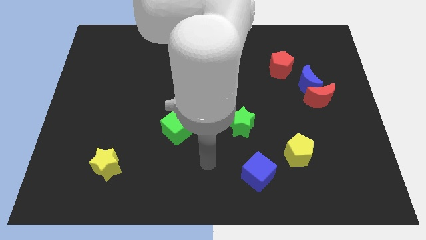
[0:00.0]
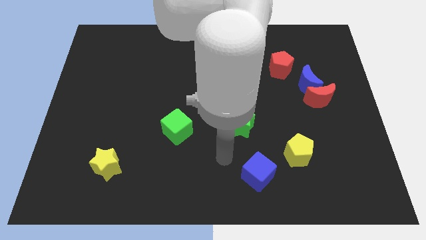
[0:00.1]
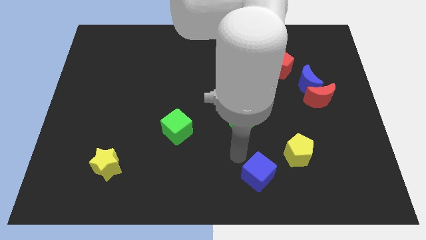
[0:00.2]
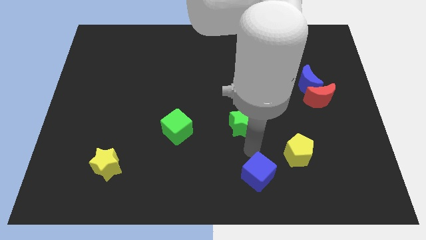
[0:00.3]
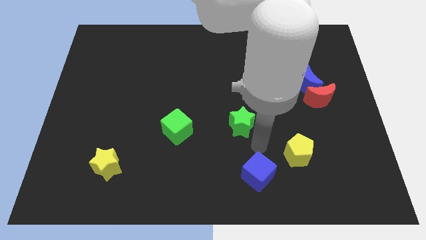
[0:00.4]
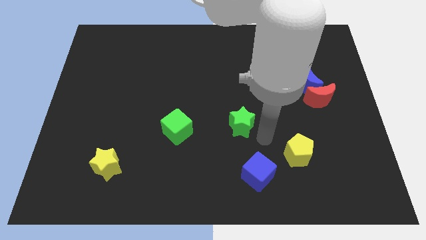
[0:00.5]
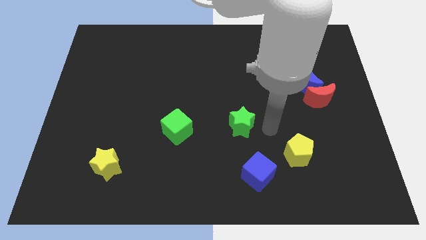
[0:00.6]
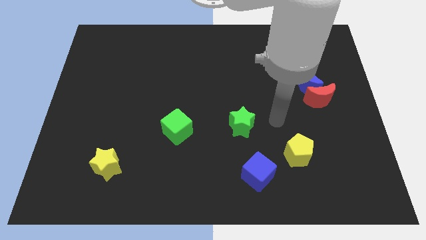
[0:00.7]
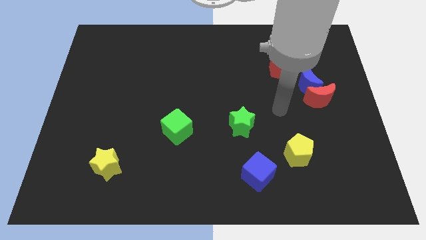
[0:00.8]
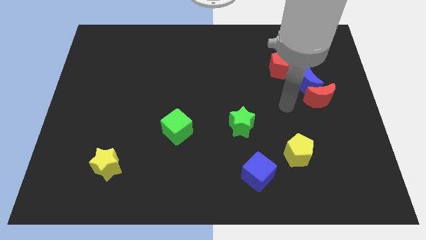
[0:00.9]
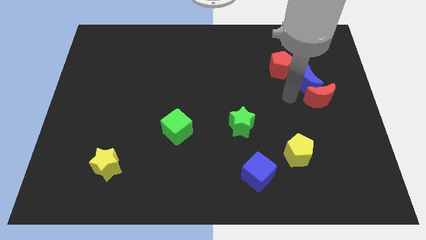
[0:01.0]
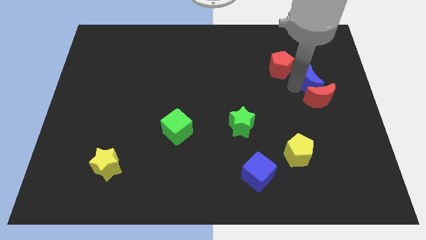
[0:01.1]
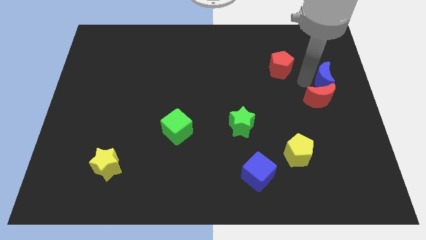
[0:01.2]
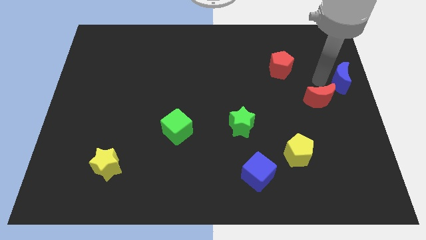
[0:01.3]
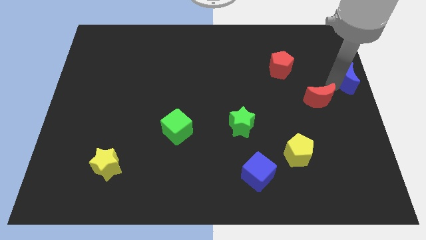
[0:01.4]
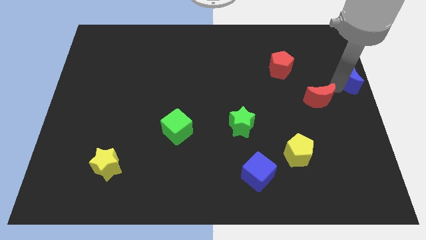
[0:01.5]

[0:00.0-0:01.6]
pull the red moon apart from the blue moon

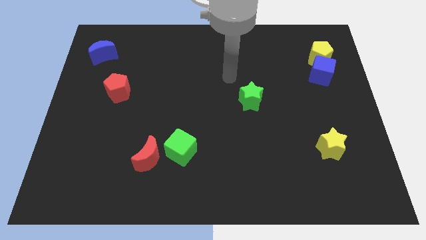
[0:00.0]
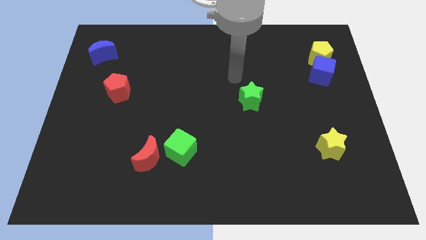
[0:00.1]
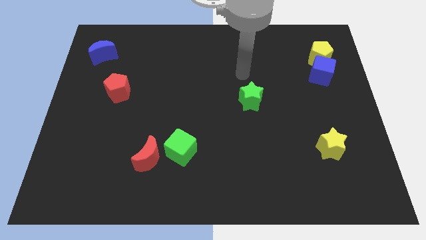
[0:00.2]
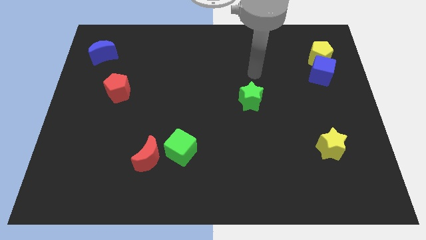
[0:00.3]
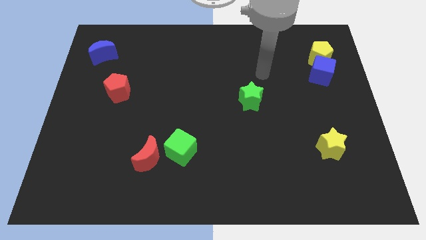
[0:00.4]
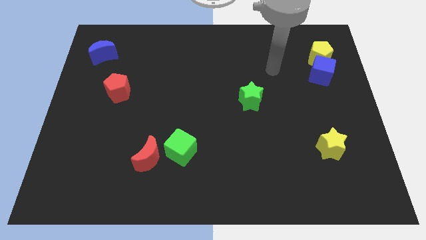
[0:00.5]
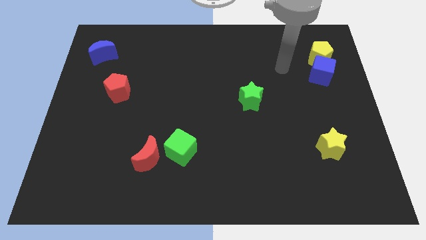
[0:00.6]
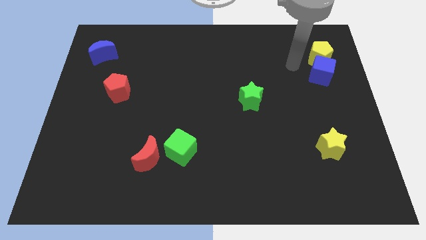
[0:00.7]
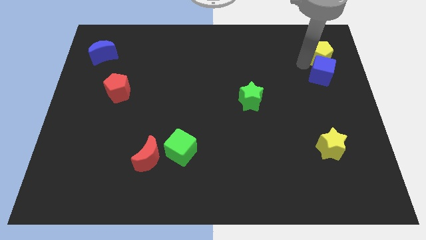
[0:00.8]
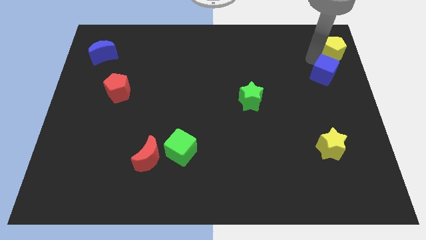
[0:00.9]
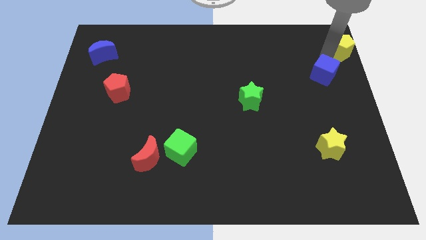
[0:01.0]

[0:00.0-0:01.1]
pull the blue cube apart from the yellow pentagon

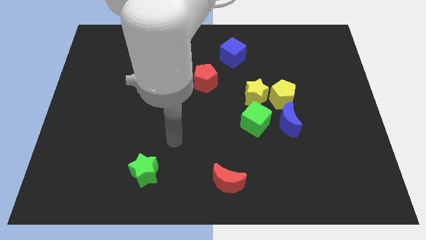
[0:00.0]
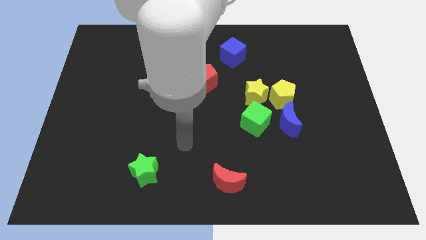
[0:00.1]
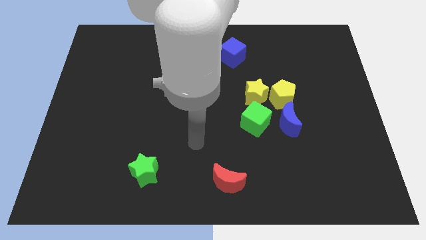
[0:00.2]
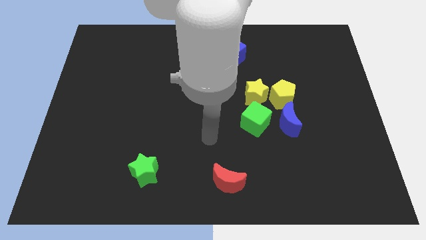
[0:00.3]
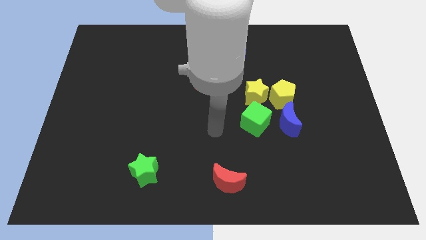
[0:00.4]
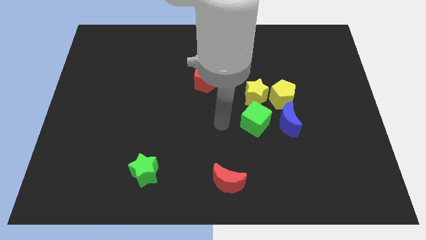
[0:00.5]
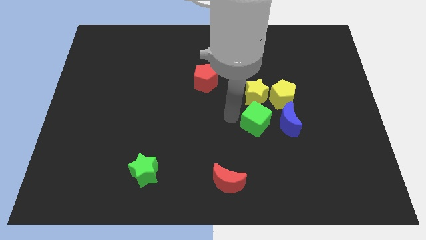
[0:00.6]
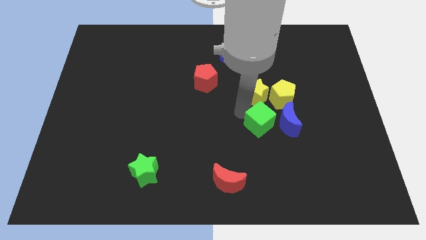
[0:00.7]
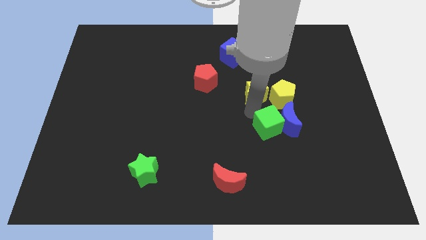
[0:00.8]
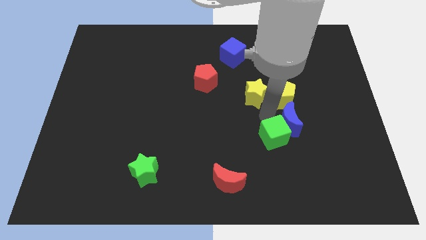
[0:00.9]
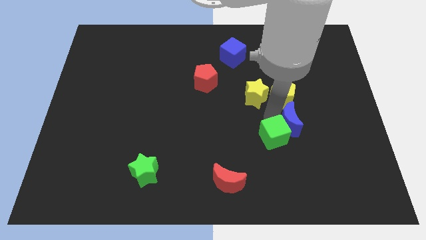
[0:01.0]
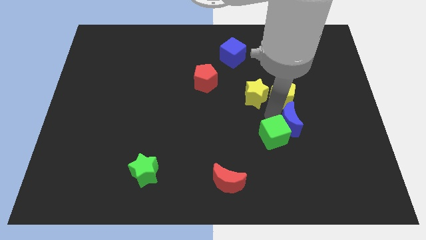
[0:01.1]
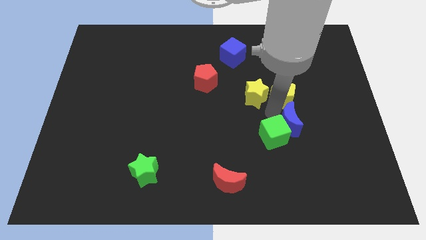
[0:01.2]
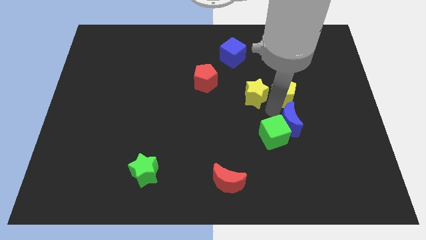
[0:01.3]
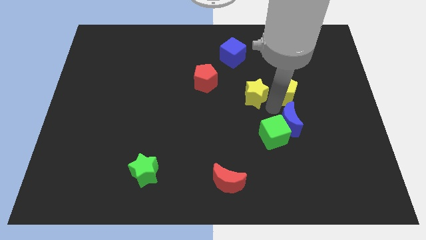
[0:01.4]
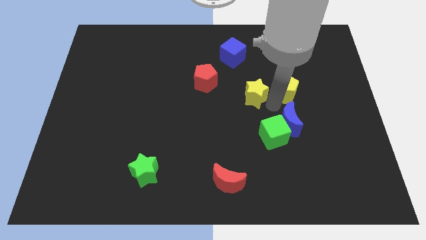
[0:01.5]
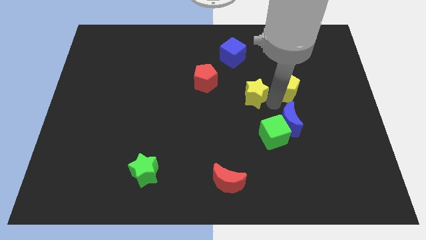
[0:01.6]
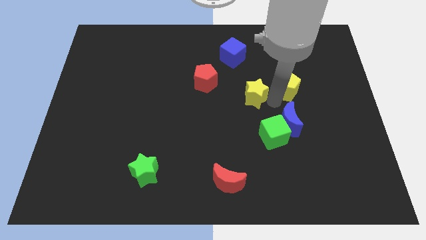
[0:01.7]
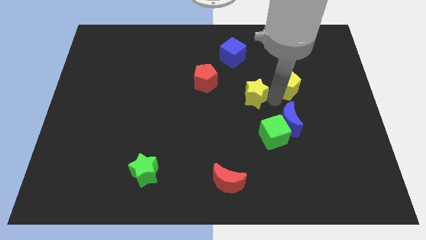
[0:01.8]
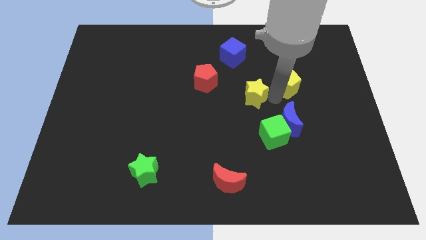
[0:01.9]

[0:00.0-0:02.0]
pull the yellow pentagon apart from the group

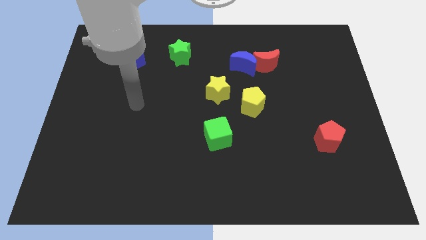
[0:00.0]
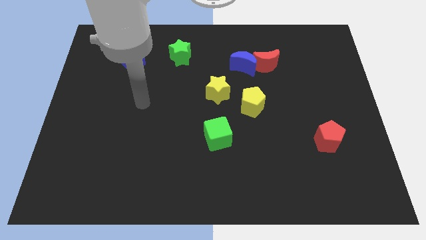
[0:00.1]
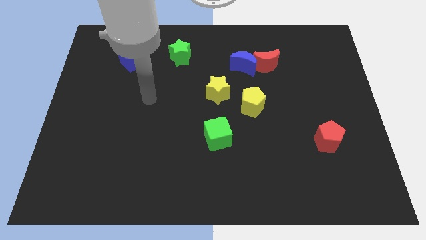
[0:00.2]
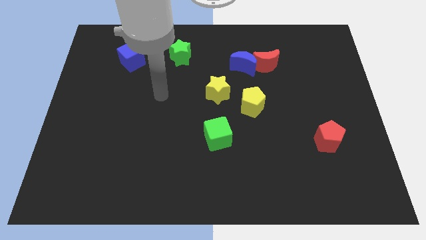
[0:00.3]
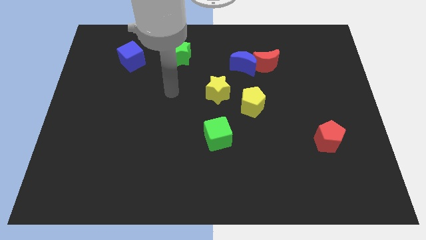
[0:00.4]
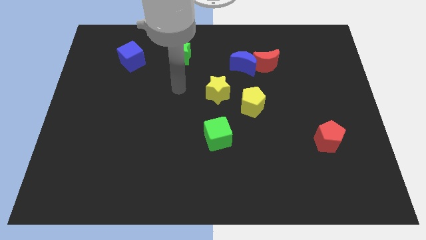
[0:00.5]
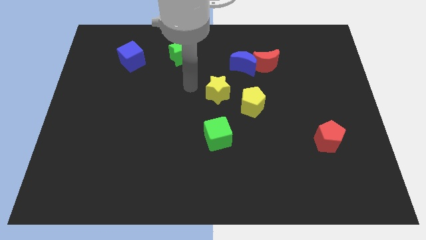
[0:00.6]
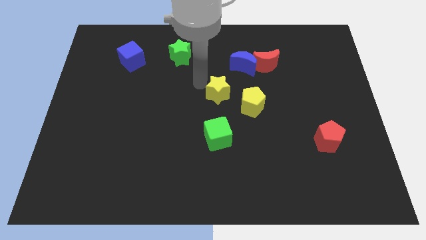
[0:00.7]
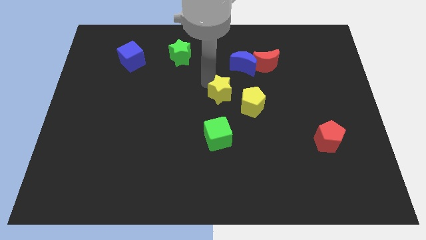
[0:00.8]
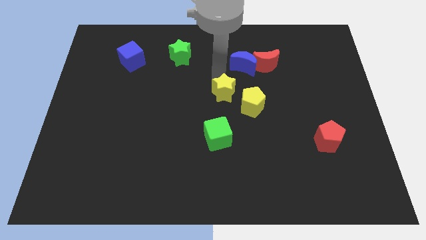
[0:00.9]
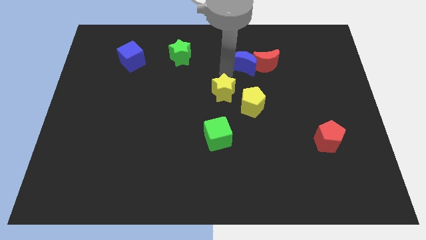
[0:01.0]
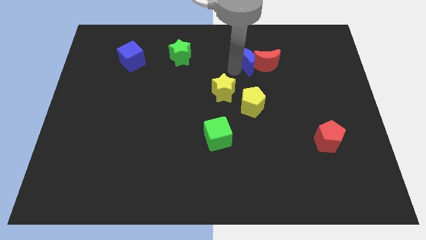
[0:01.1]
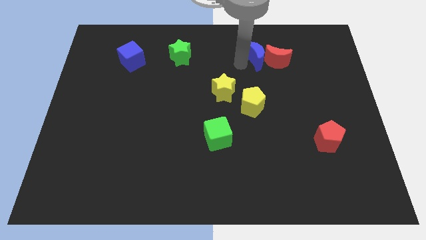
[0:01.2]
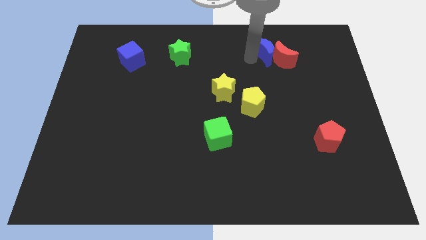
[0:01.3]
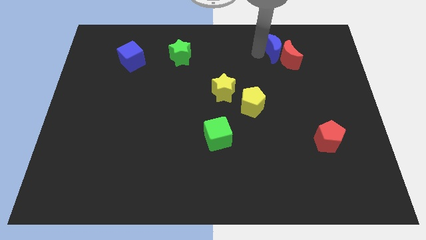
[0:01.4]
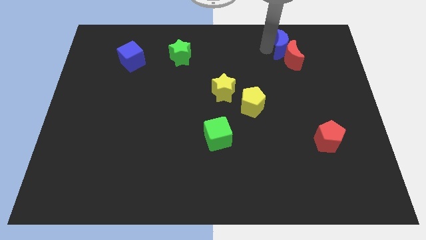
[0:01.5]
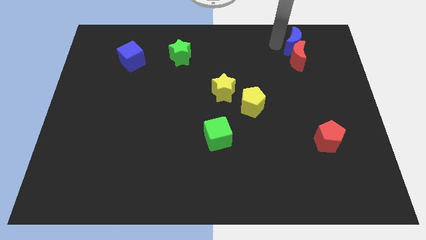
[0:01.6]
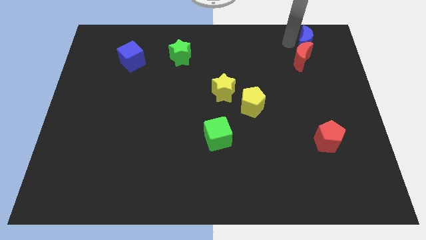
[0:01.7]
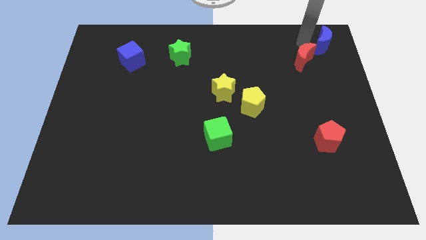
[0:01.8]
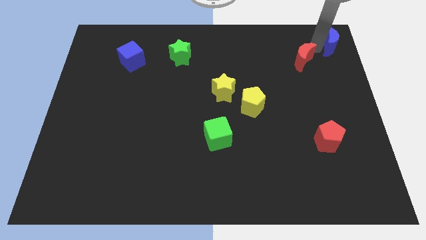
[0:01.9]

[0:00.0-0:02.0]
move the red moon away from the blue moon

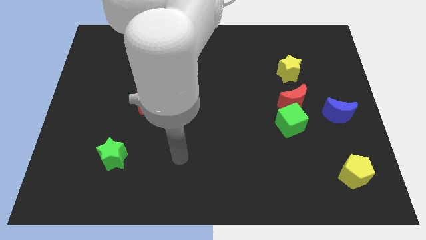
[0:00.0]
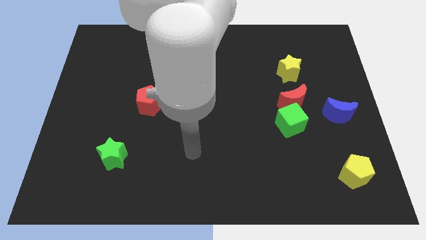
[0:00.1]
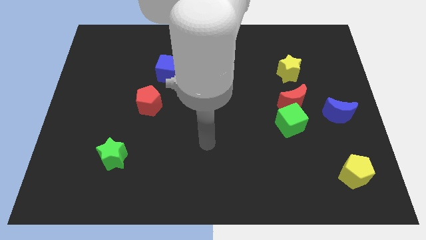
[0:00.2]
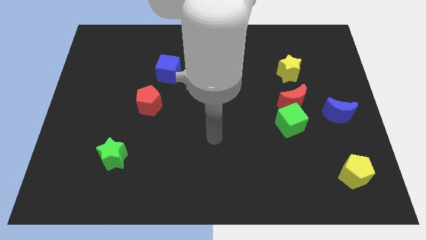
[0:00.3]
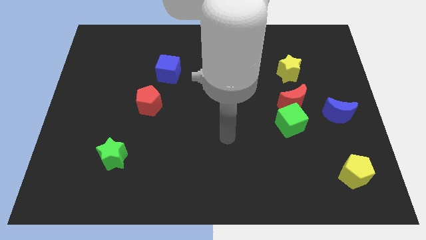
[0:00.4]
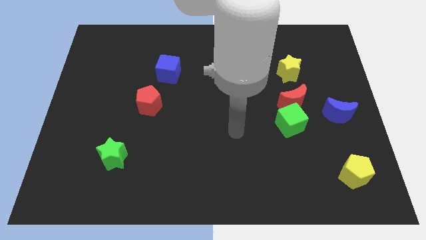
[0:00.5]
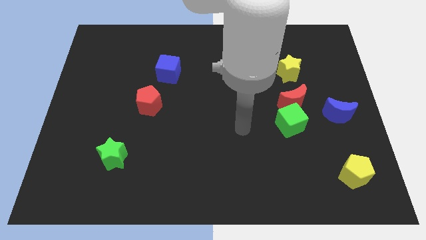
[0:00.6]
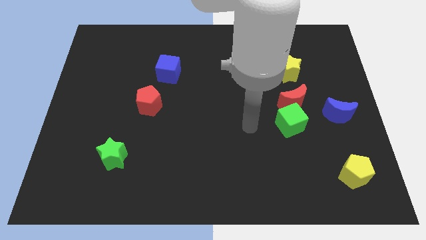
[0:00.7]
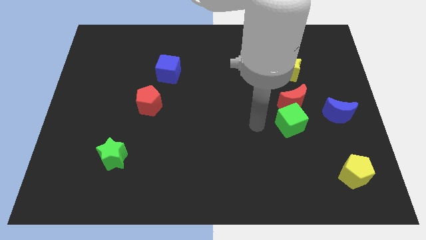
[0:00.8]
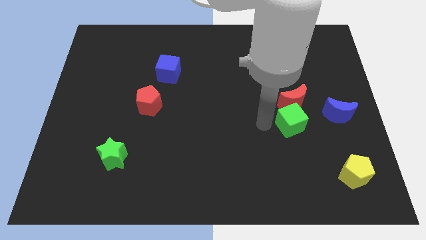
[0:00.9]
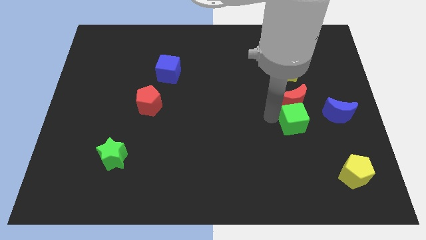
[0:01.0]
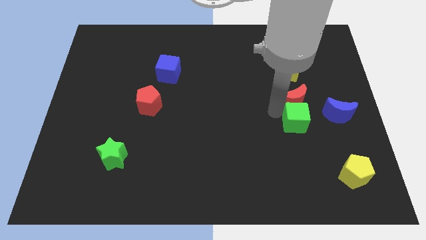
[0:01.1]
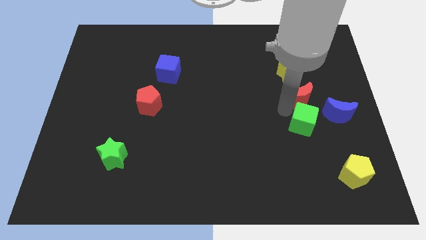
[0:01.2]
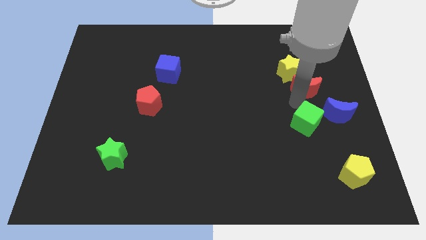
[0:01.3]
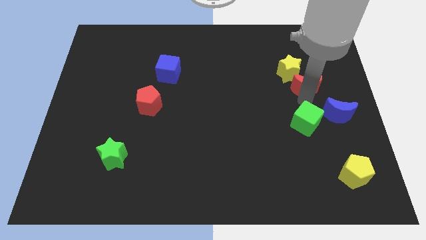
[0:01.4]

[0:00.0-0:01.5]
separate the green cube from the red moon

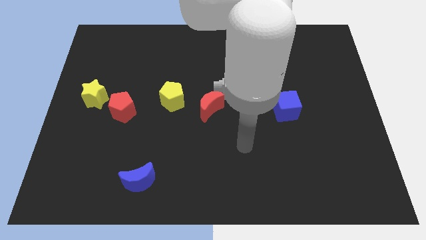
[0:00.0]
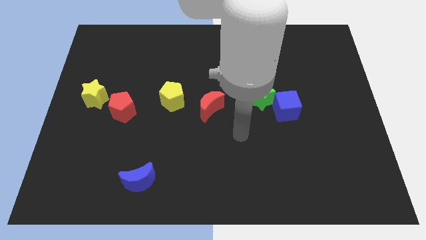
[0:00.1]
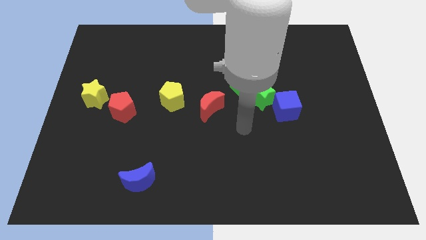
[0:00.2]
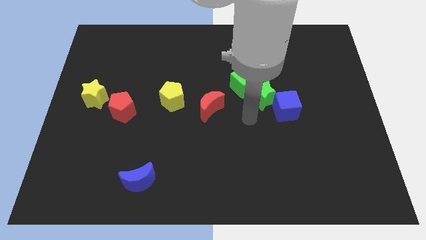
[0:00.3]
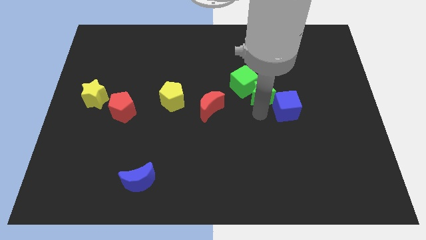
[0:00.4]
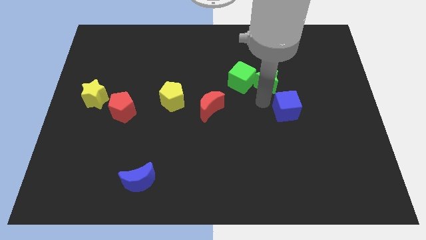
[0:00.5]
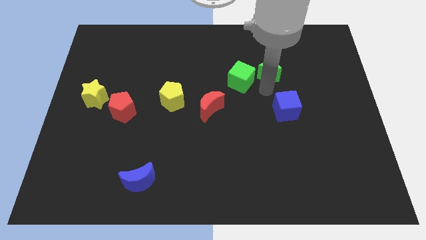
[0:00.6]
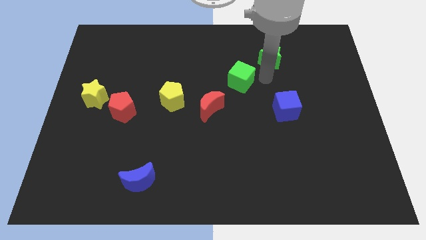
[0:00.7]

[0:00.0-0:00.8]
pull the green cube apart from the green star

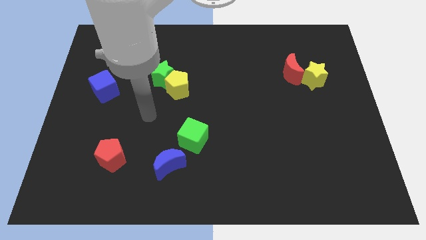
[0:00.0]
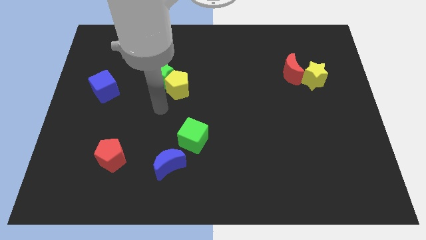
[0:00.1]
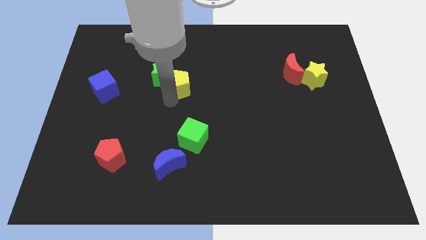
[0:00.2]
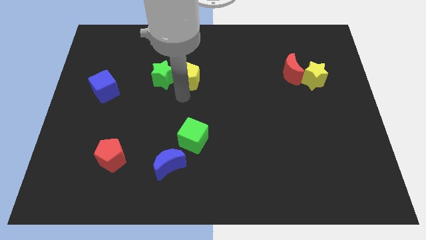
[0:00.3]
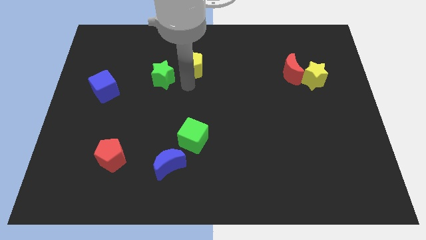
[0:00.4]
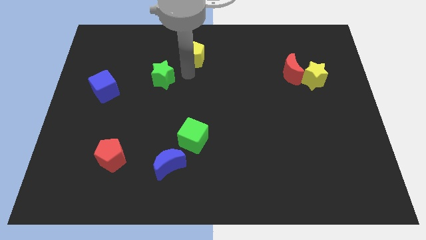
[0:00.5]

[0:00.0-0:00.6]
move the green star away from the yellow pentagon
